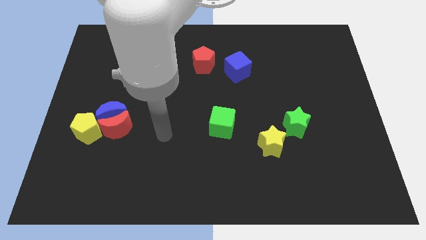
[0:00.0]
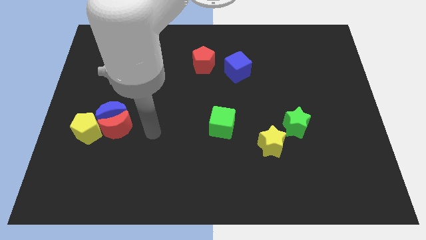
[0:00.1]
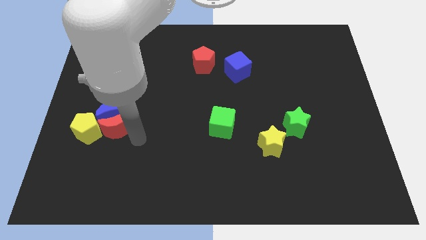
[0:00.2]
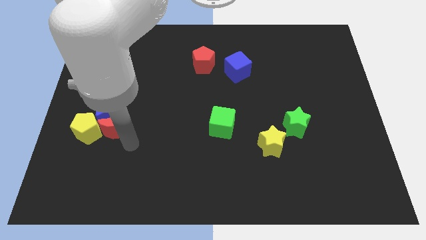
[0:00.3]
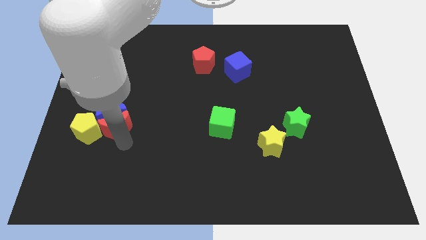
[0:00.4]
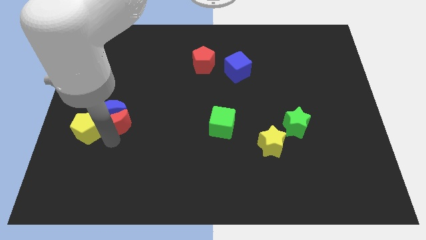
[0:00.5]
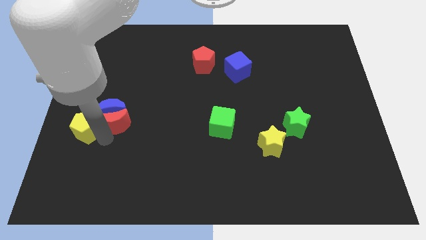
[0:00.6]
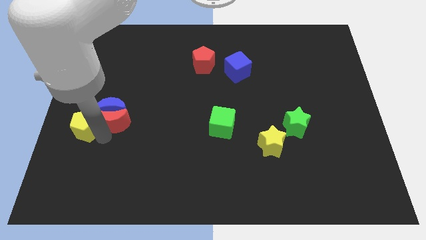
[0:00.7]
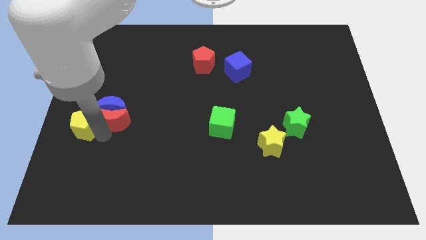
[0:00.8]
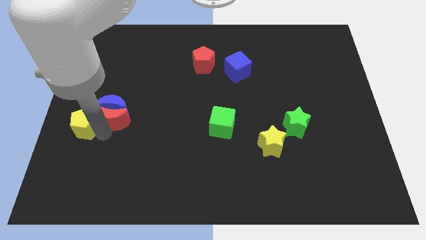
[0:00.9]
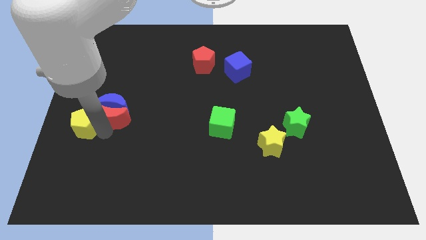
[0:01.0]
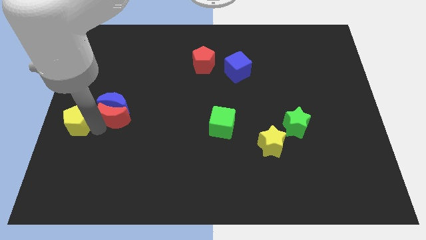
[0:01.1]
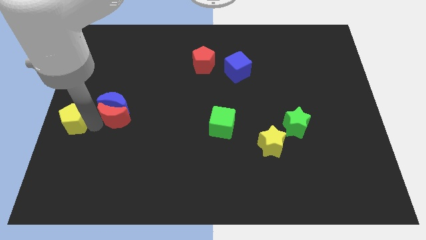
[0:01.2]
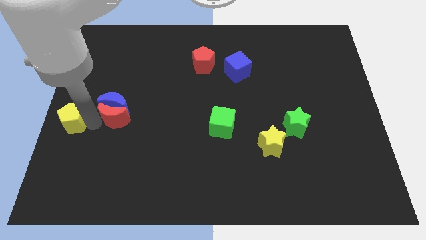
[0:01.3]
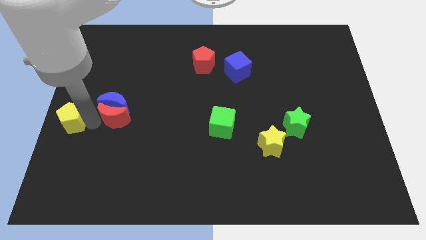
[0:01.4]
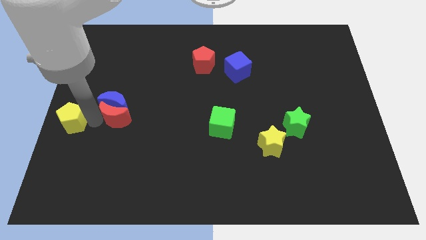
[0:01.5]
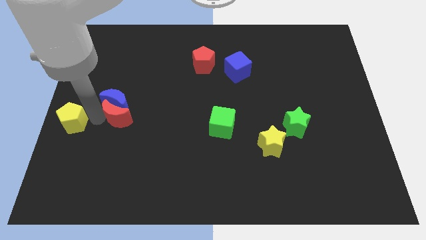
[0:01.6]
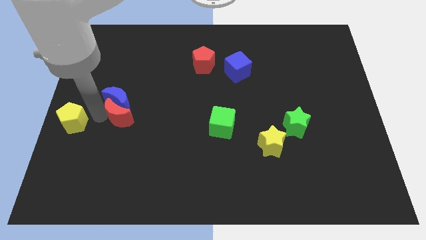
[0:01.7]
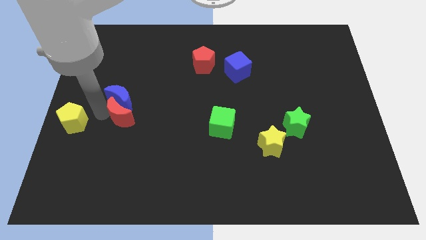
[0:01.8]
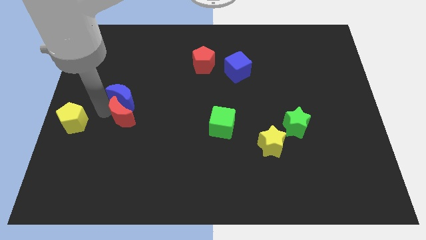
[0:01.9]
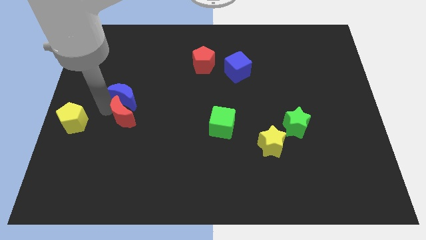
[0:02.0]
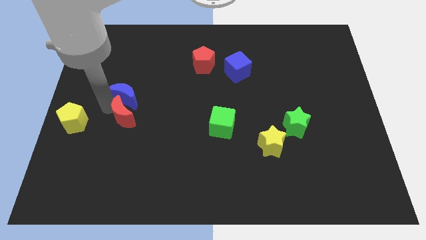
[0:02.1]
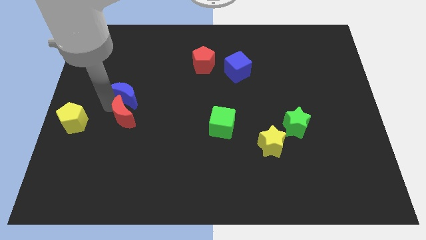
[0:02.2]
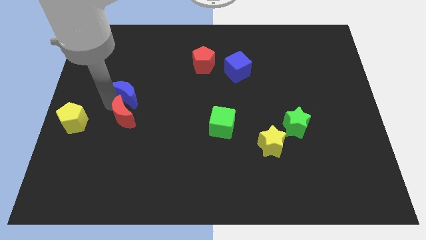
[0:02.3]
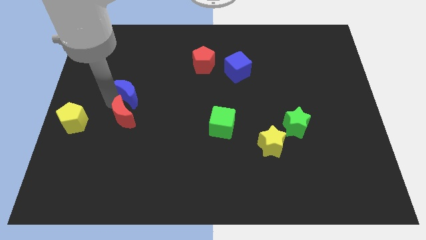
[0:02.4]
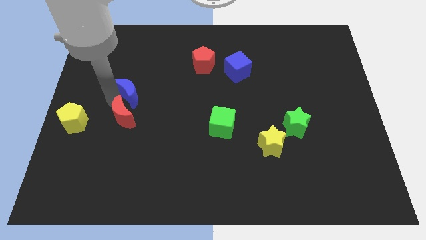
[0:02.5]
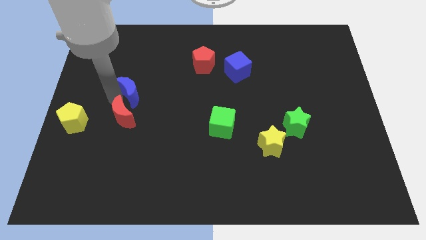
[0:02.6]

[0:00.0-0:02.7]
move the blue moon away from the red moon and yellow pentagon

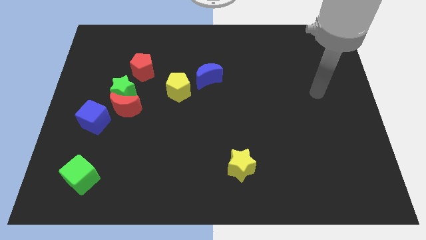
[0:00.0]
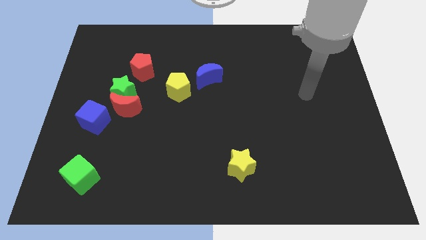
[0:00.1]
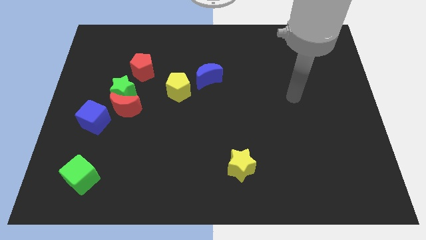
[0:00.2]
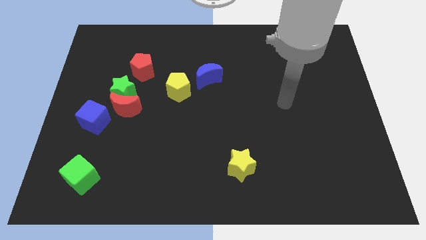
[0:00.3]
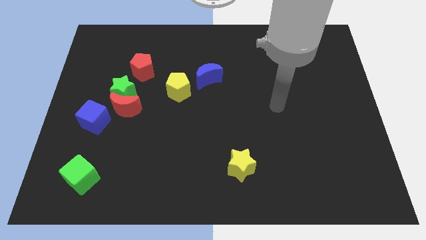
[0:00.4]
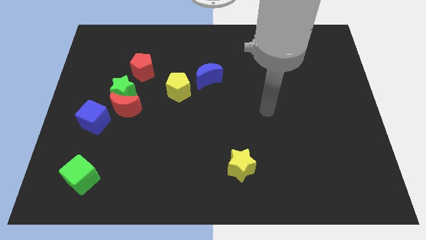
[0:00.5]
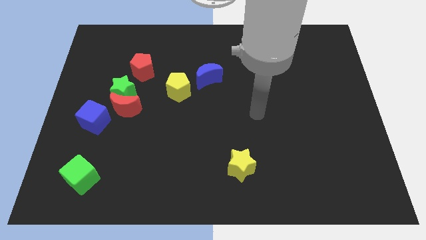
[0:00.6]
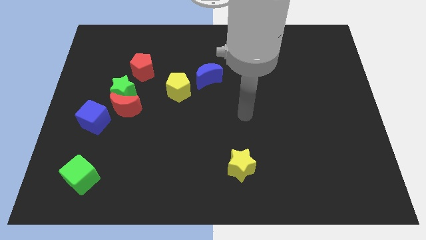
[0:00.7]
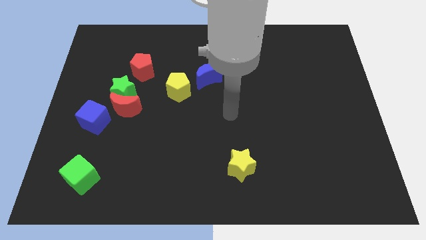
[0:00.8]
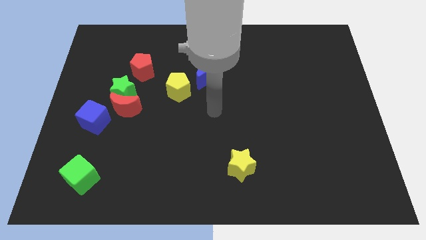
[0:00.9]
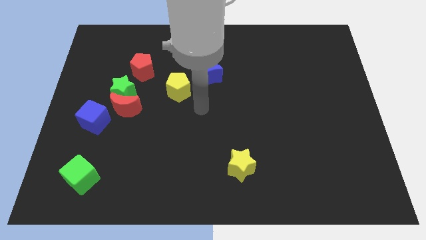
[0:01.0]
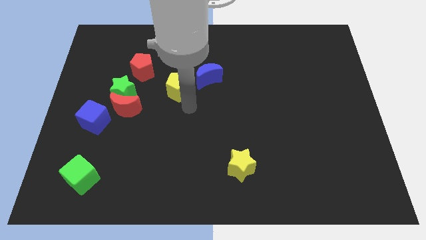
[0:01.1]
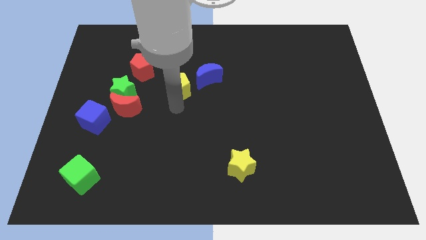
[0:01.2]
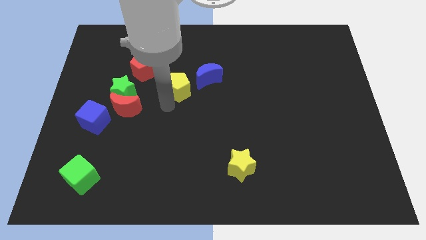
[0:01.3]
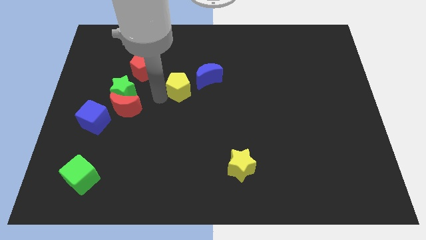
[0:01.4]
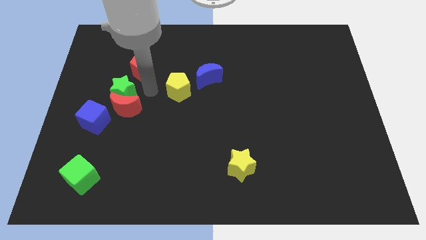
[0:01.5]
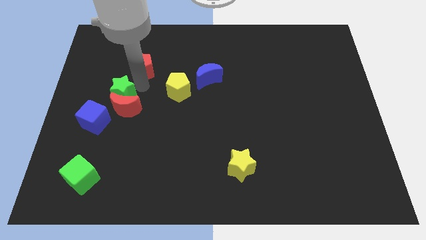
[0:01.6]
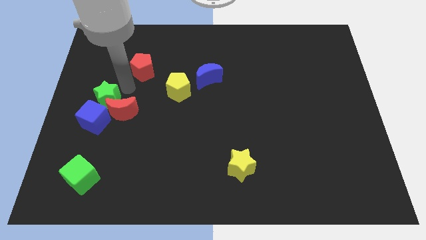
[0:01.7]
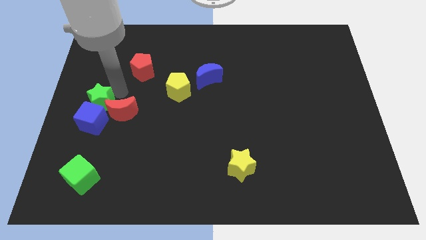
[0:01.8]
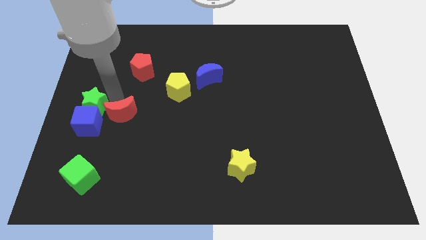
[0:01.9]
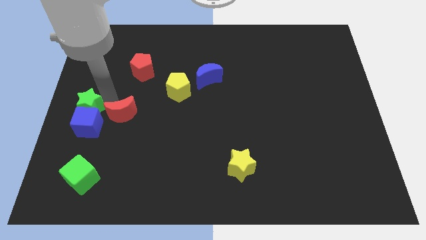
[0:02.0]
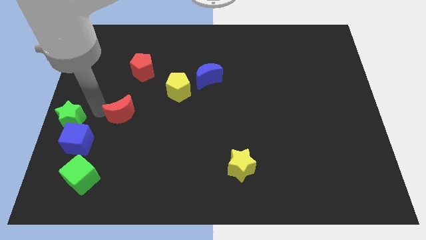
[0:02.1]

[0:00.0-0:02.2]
separate the red moon from the green star and blue cube

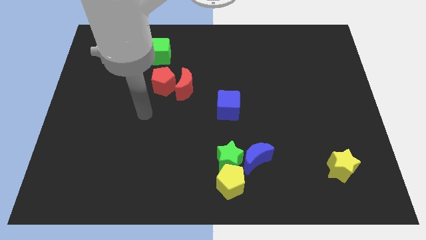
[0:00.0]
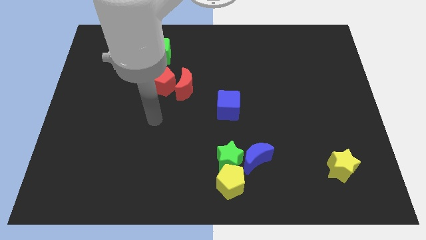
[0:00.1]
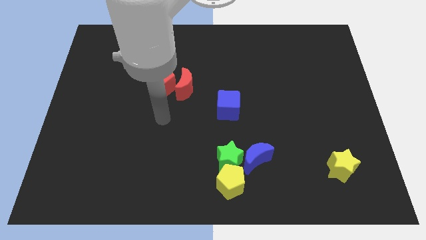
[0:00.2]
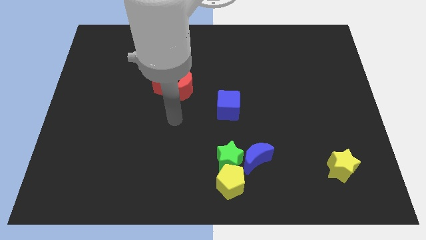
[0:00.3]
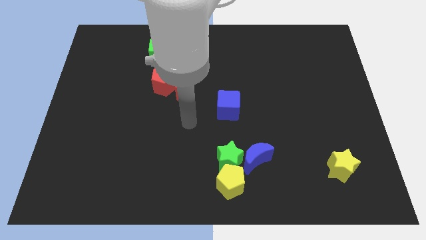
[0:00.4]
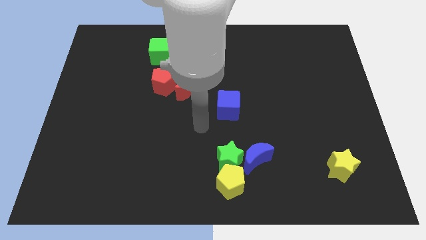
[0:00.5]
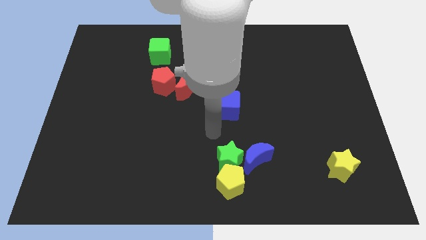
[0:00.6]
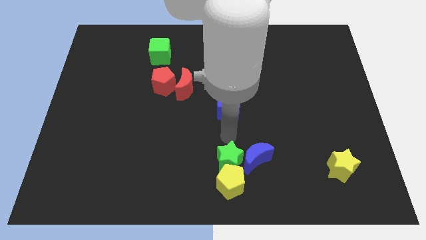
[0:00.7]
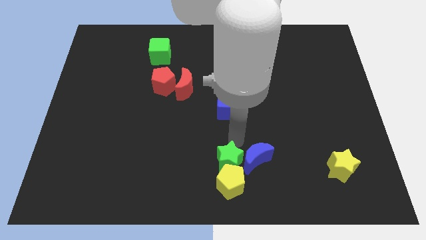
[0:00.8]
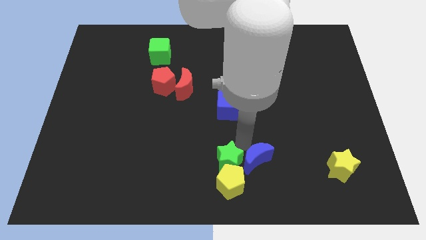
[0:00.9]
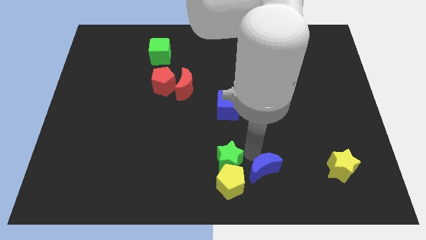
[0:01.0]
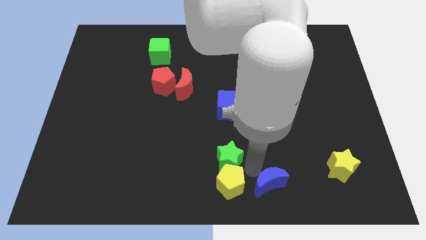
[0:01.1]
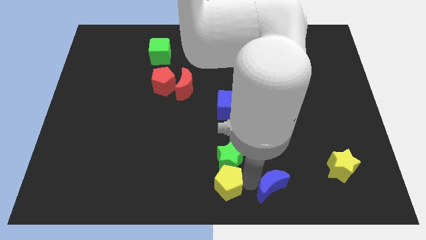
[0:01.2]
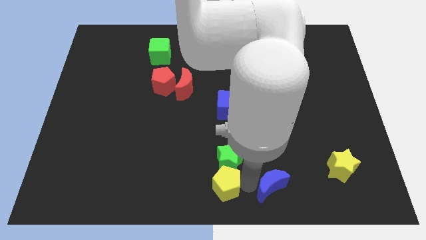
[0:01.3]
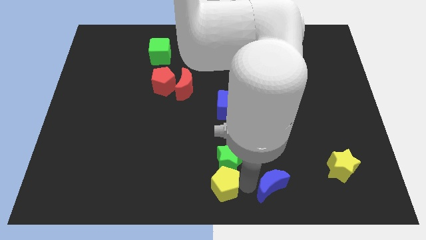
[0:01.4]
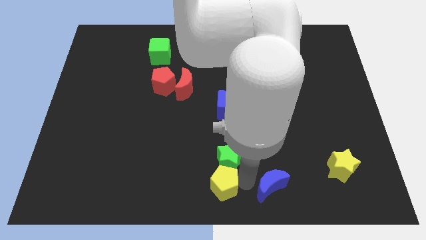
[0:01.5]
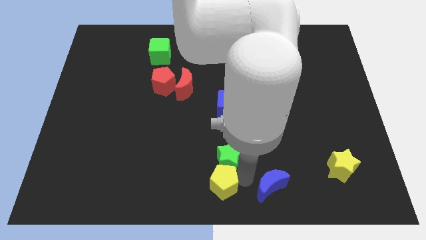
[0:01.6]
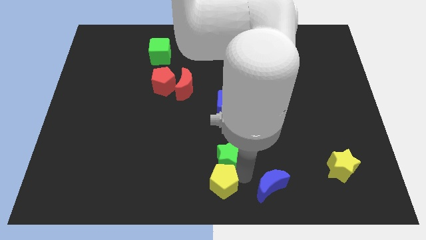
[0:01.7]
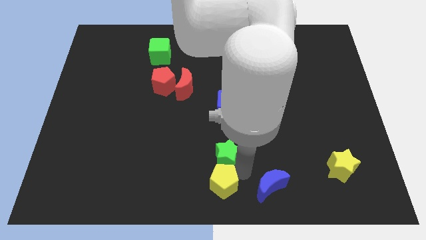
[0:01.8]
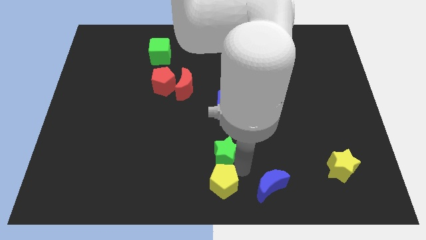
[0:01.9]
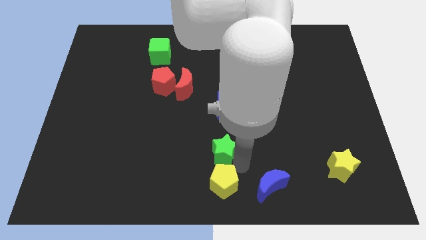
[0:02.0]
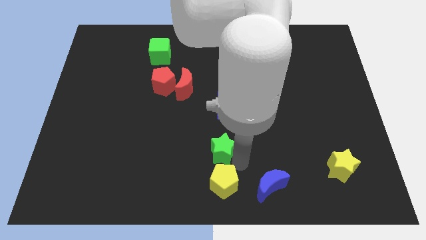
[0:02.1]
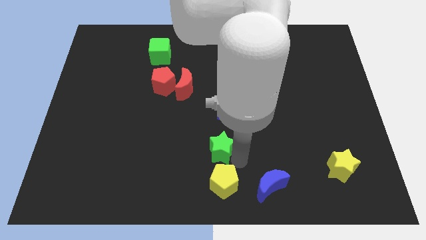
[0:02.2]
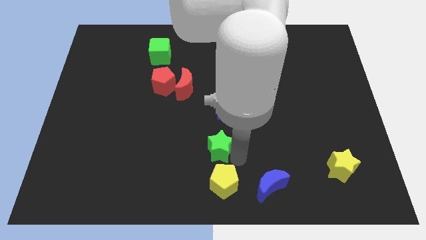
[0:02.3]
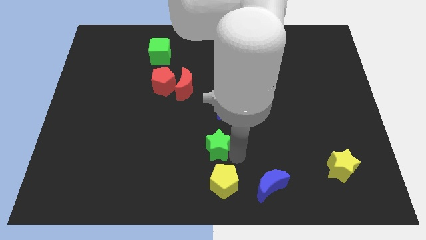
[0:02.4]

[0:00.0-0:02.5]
separate the green star from the yellow pentagon and blue moon

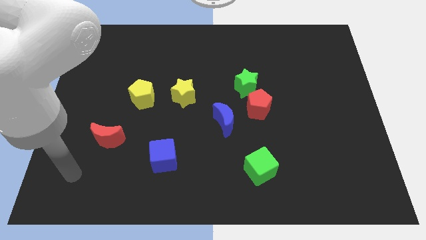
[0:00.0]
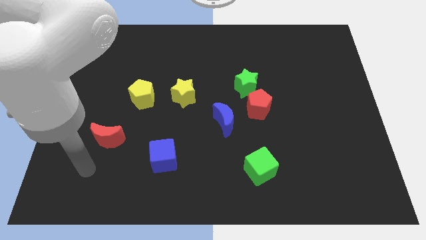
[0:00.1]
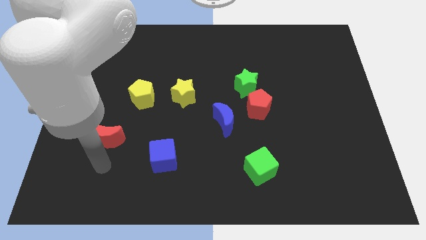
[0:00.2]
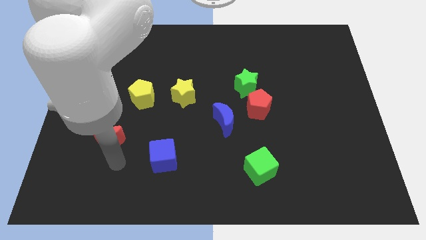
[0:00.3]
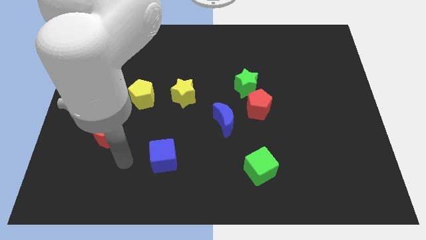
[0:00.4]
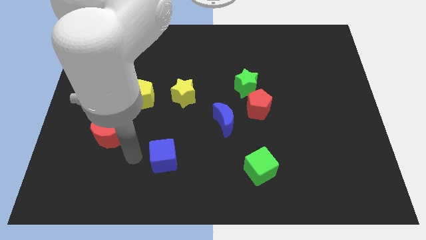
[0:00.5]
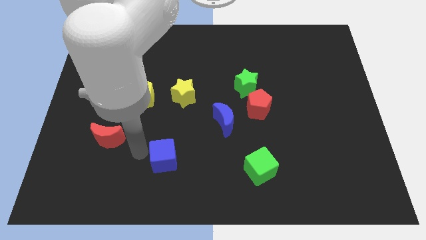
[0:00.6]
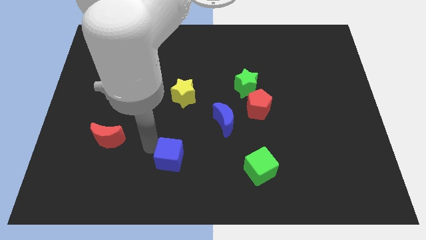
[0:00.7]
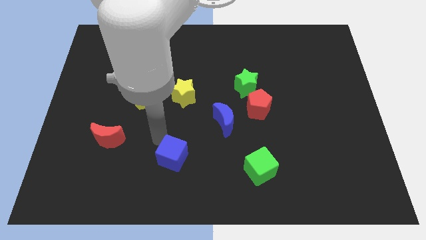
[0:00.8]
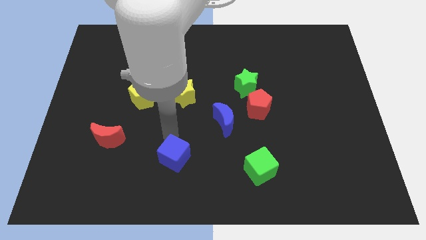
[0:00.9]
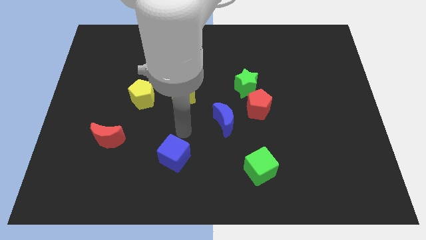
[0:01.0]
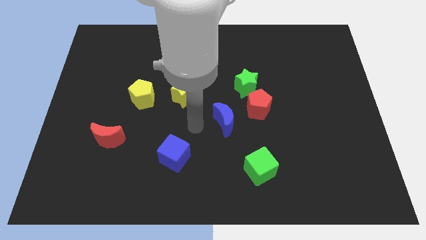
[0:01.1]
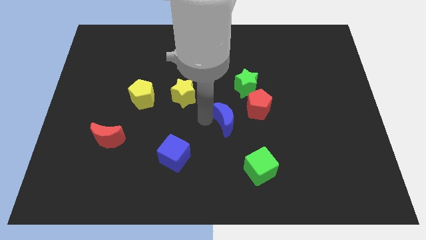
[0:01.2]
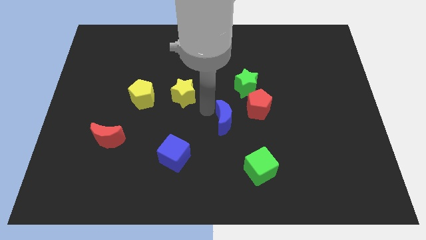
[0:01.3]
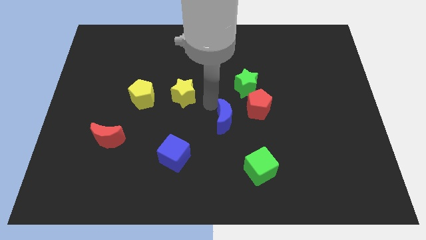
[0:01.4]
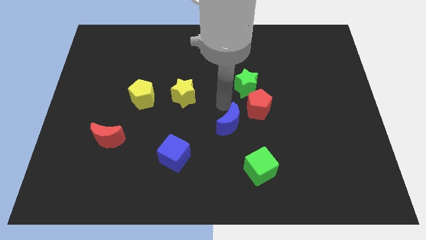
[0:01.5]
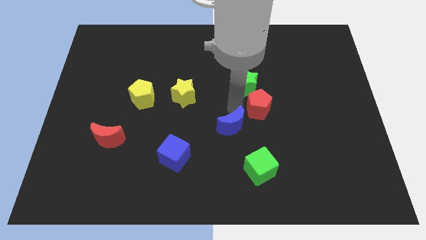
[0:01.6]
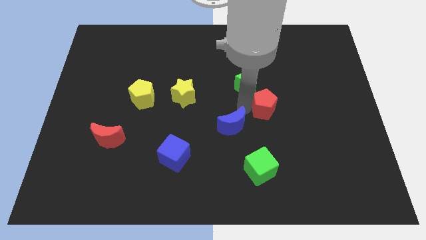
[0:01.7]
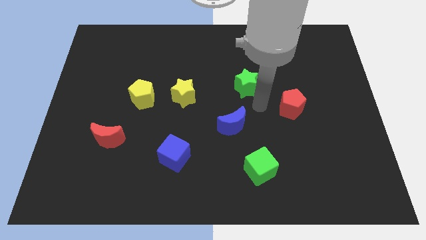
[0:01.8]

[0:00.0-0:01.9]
separate the green star from the red pentagon
